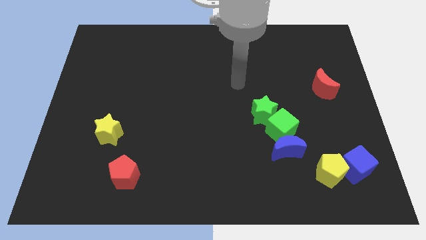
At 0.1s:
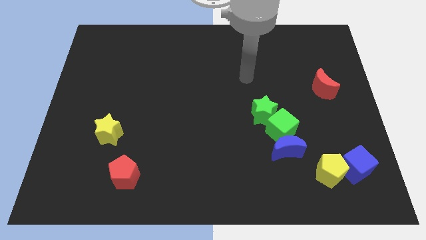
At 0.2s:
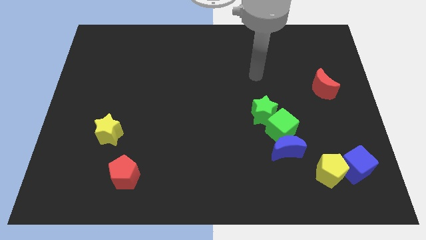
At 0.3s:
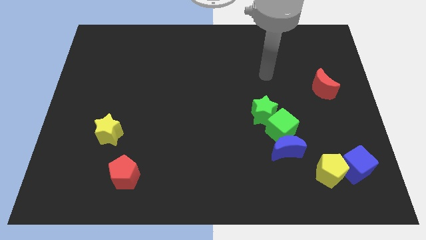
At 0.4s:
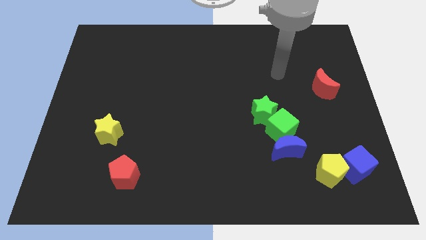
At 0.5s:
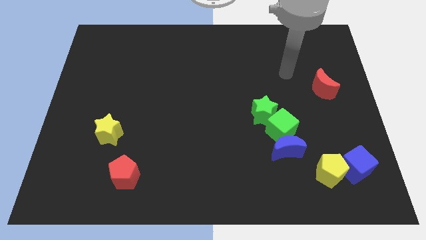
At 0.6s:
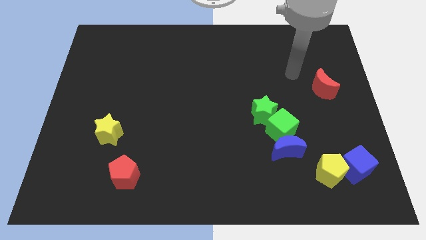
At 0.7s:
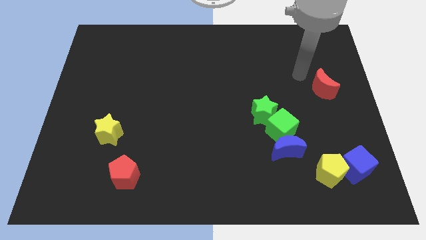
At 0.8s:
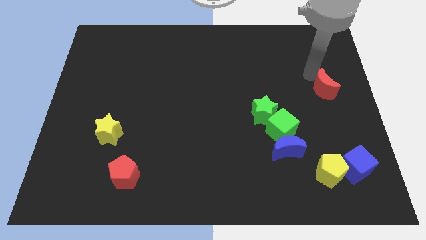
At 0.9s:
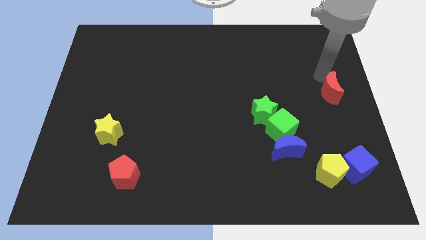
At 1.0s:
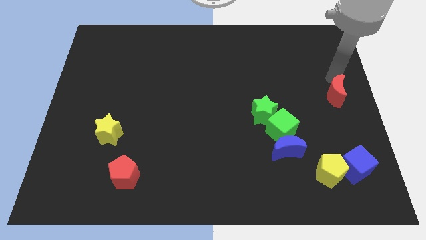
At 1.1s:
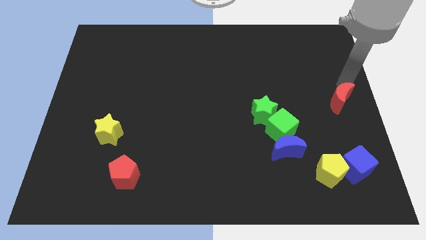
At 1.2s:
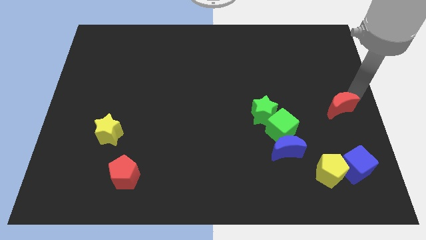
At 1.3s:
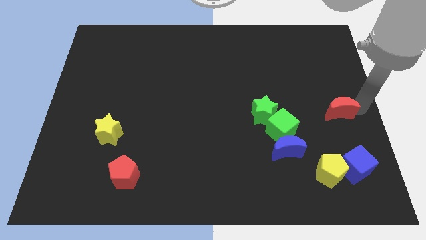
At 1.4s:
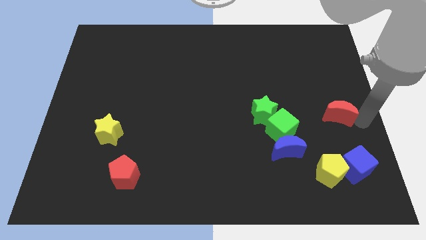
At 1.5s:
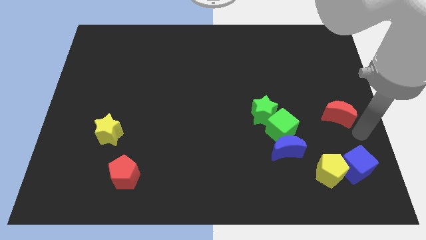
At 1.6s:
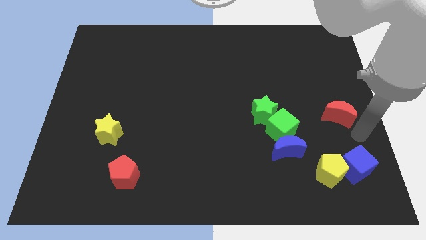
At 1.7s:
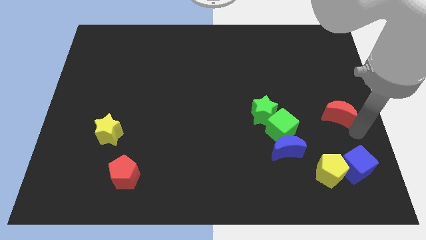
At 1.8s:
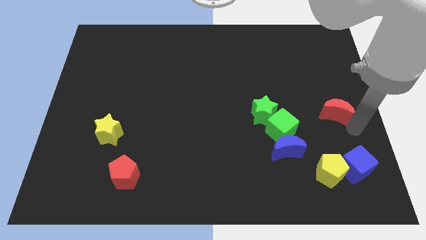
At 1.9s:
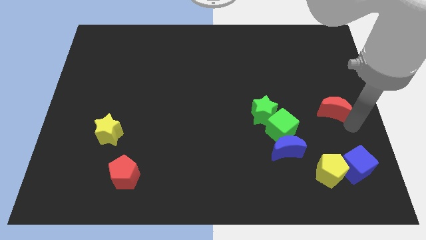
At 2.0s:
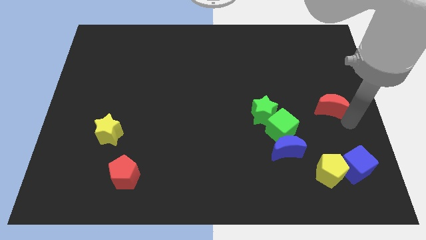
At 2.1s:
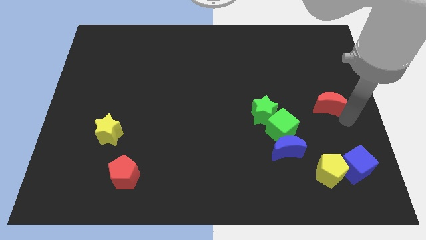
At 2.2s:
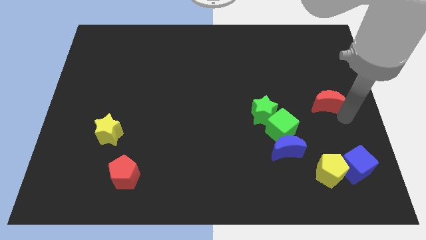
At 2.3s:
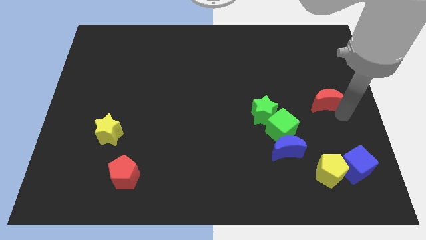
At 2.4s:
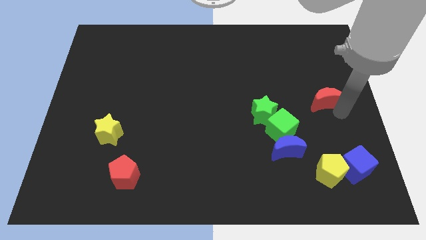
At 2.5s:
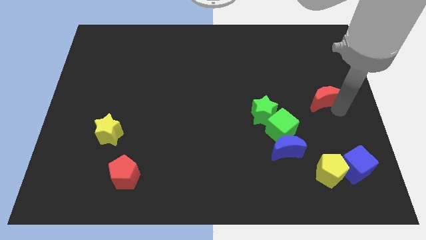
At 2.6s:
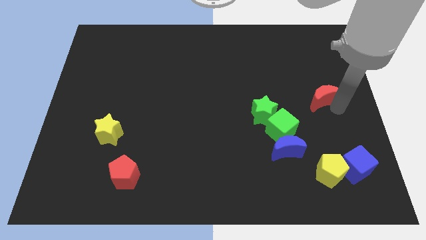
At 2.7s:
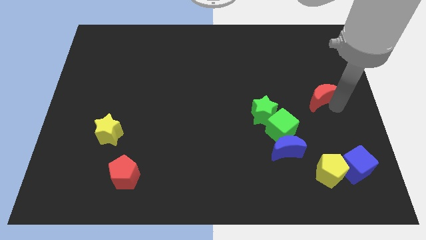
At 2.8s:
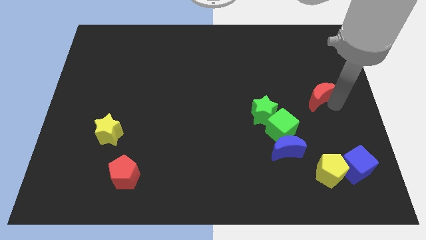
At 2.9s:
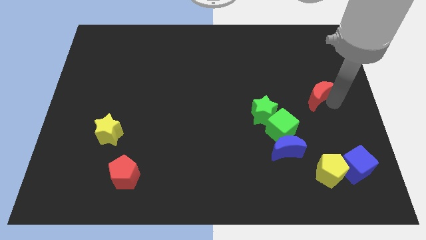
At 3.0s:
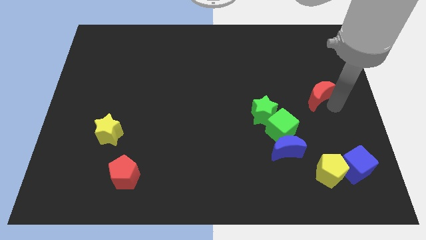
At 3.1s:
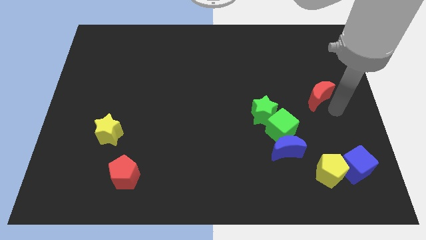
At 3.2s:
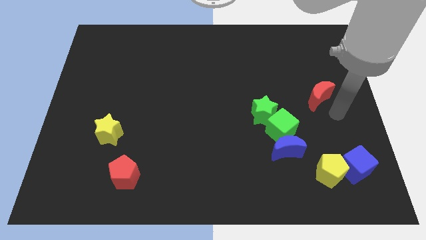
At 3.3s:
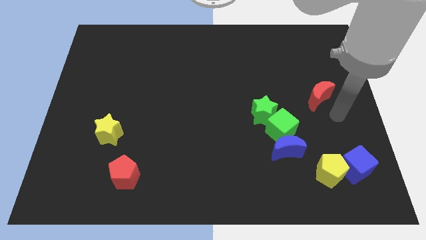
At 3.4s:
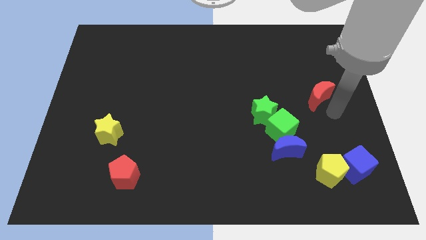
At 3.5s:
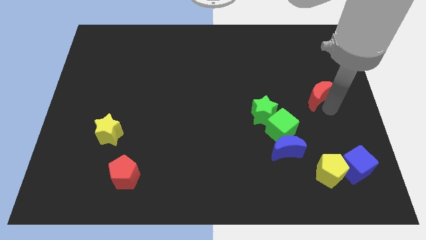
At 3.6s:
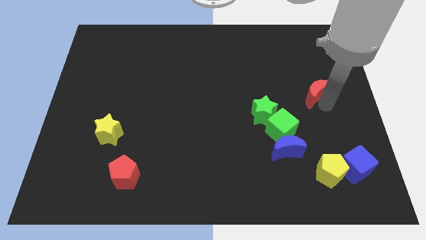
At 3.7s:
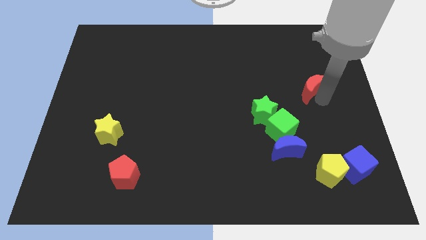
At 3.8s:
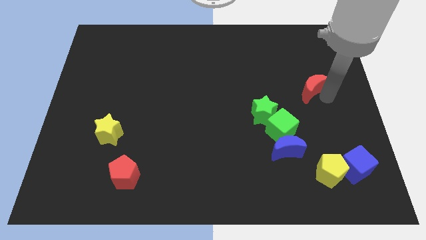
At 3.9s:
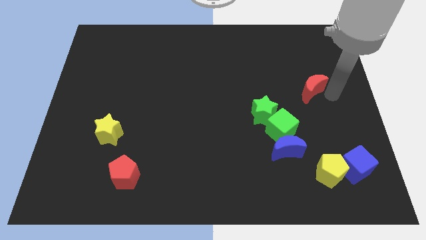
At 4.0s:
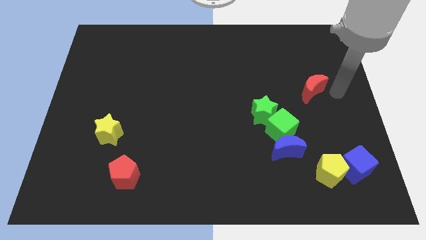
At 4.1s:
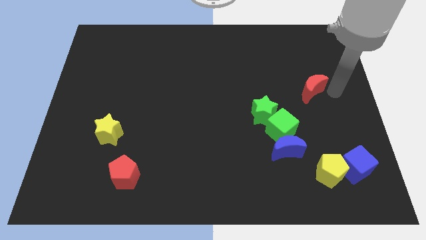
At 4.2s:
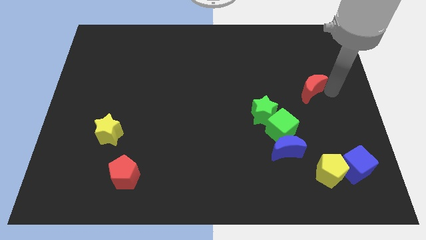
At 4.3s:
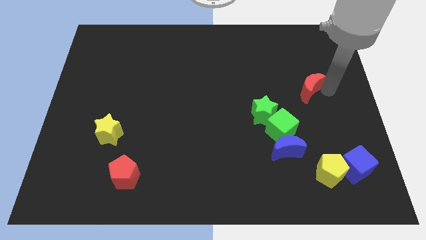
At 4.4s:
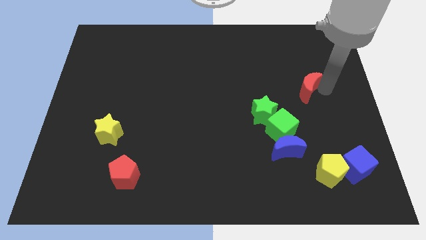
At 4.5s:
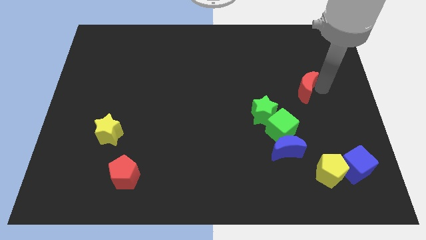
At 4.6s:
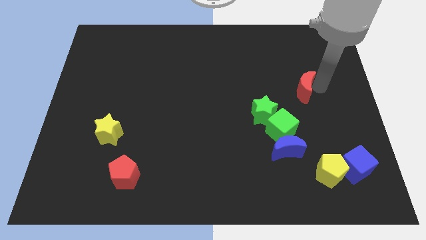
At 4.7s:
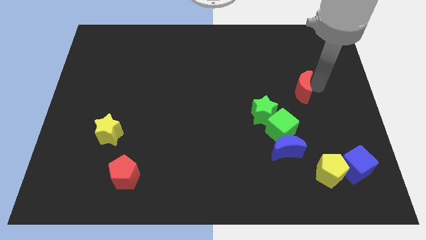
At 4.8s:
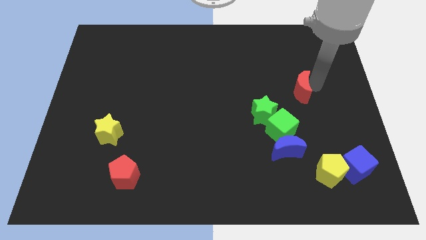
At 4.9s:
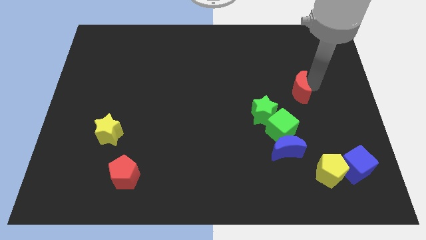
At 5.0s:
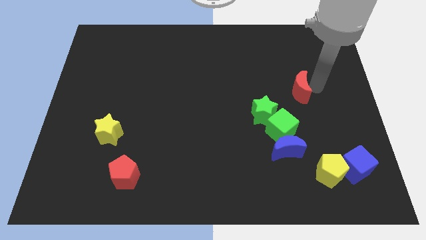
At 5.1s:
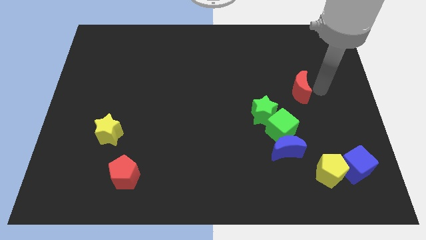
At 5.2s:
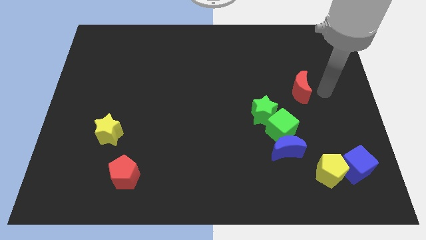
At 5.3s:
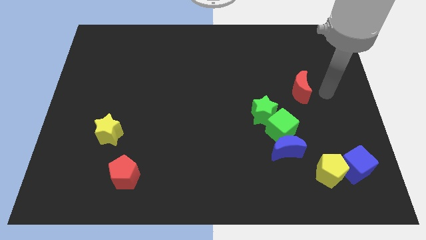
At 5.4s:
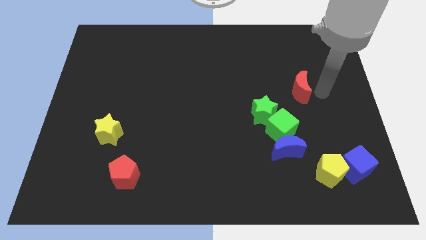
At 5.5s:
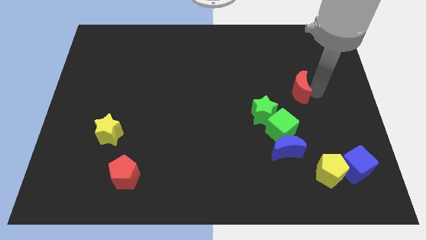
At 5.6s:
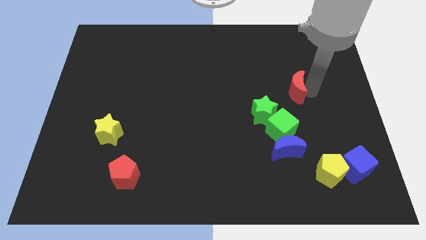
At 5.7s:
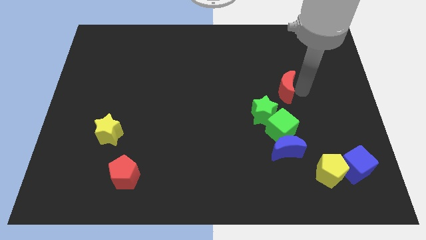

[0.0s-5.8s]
slightly slide the red moon to the left

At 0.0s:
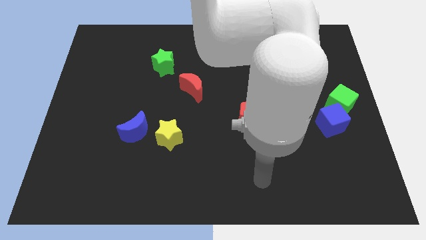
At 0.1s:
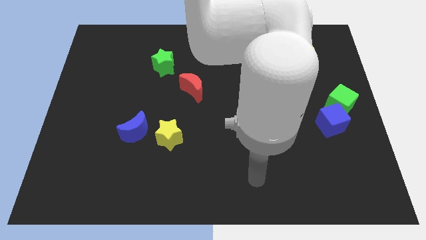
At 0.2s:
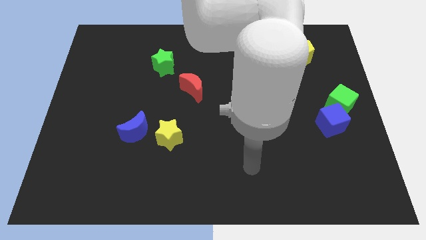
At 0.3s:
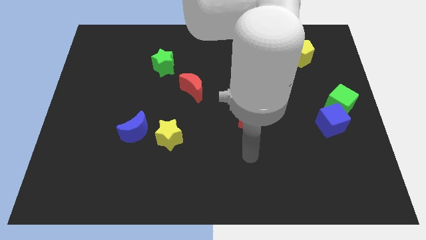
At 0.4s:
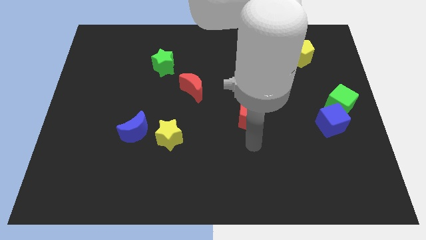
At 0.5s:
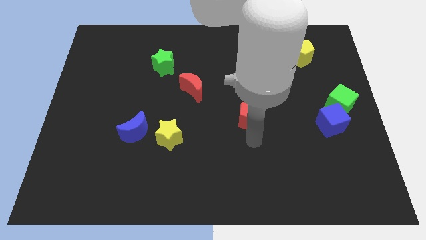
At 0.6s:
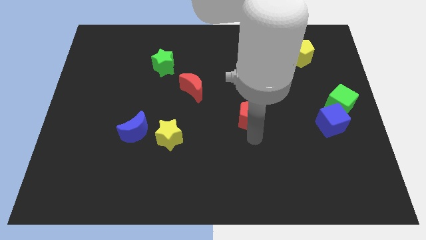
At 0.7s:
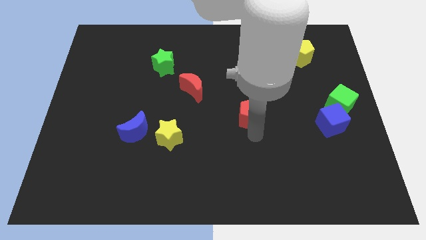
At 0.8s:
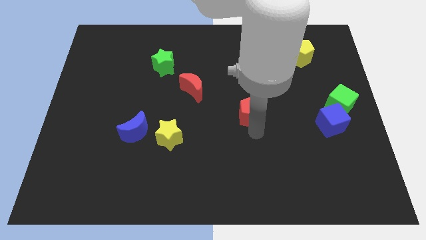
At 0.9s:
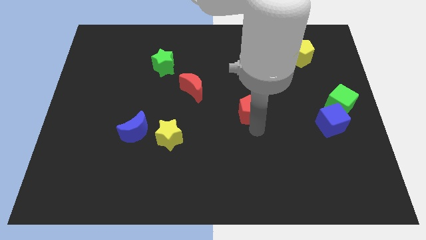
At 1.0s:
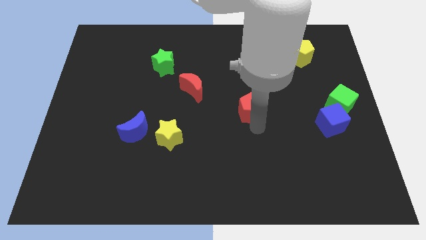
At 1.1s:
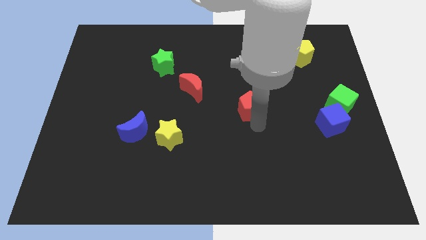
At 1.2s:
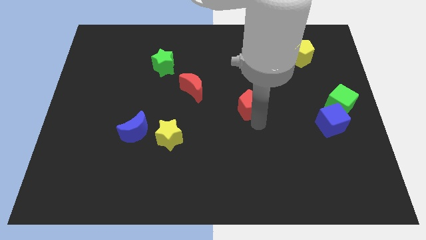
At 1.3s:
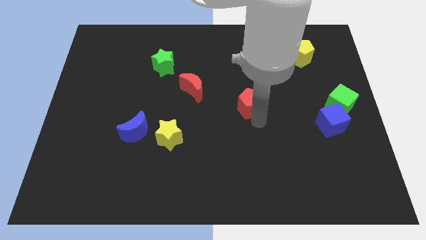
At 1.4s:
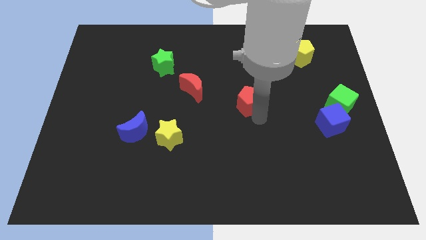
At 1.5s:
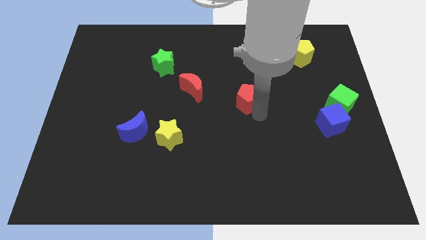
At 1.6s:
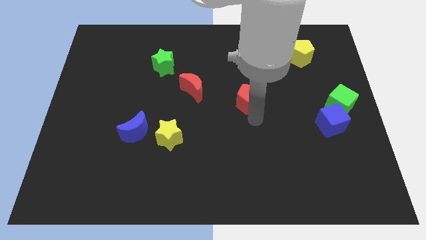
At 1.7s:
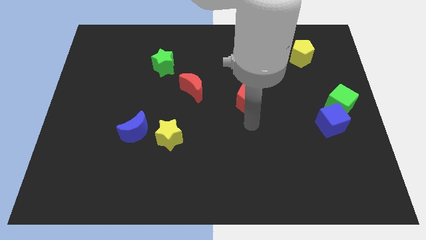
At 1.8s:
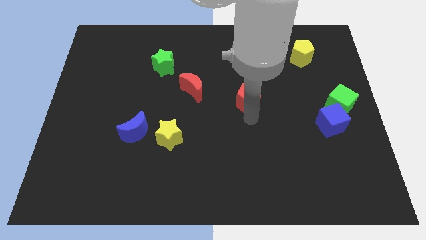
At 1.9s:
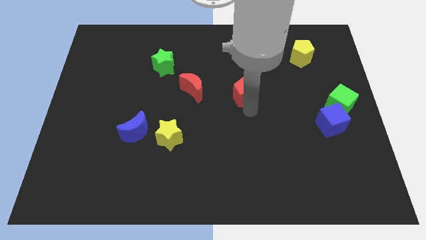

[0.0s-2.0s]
move the red pentagon a little bit upwards

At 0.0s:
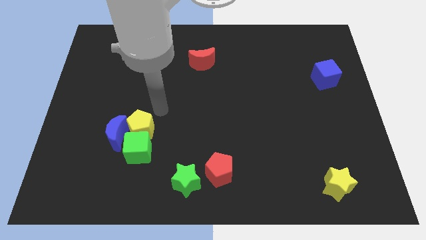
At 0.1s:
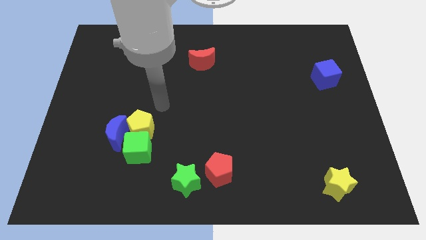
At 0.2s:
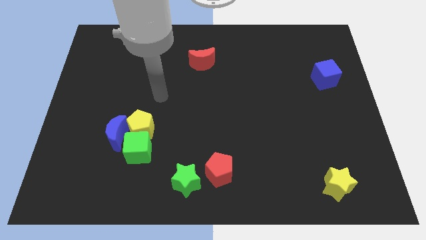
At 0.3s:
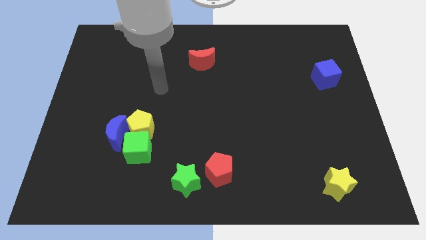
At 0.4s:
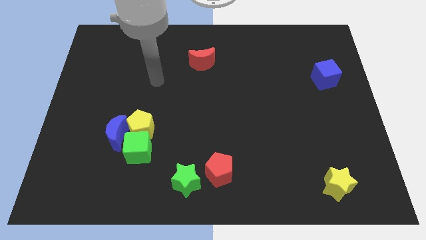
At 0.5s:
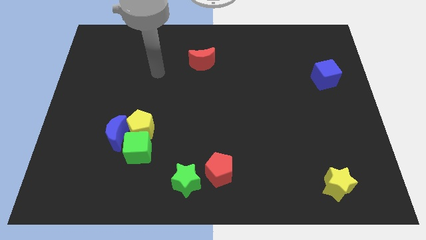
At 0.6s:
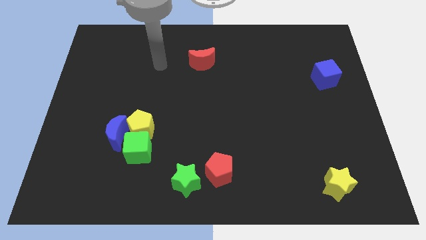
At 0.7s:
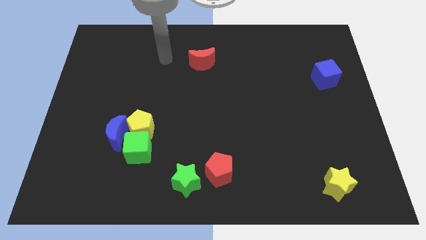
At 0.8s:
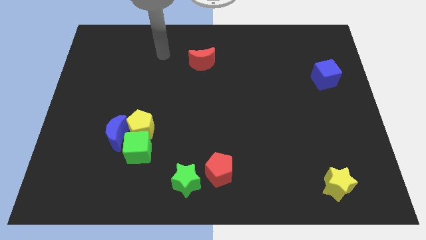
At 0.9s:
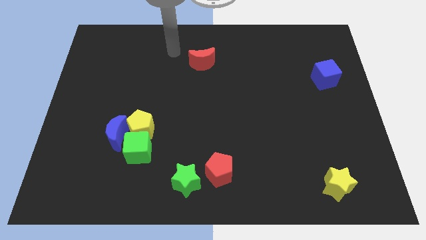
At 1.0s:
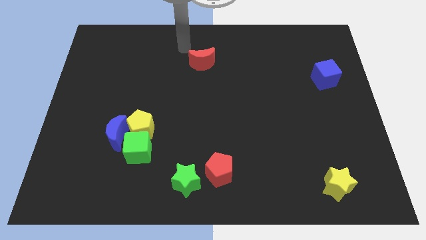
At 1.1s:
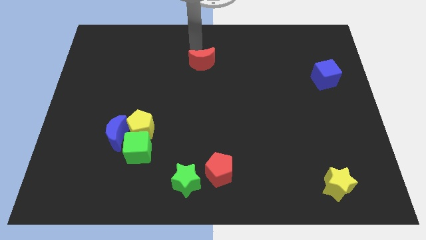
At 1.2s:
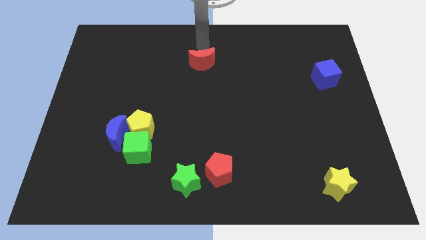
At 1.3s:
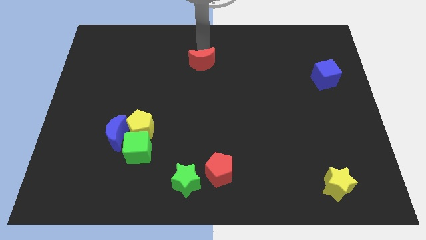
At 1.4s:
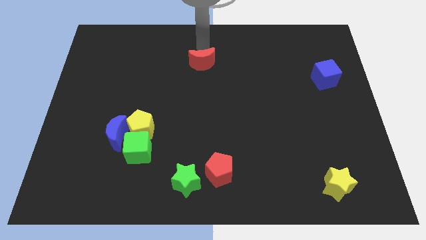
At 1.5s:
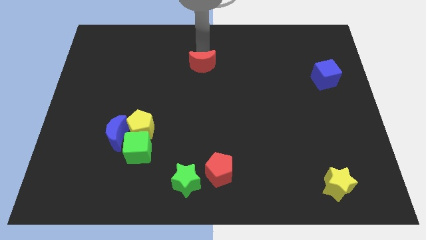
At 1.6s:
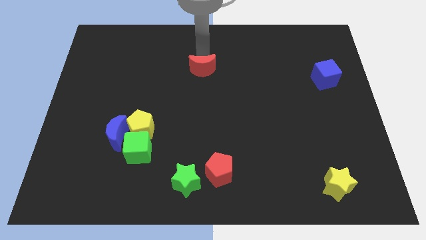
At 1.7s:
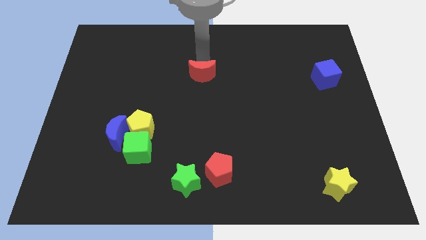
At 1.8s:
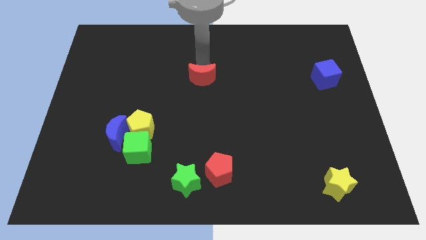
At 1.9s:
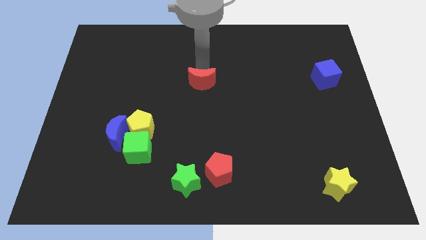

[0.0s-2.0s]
push the red moon slightly down
